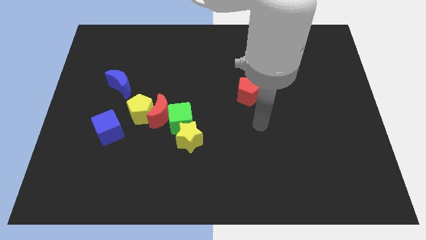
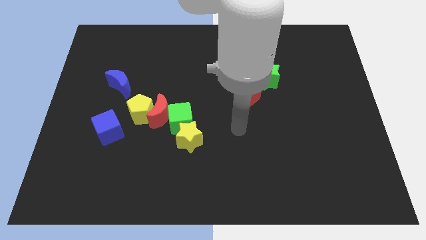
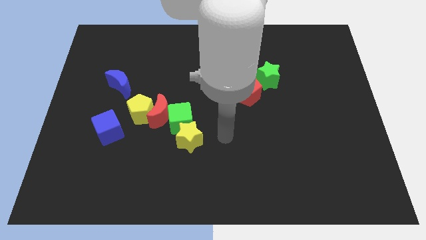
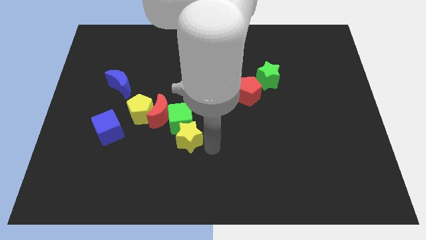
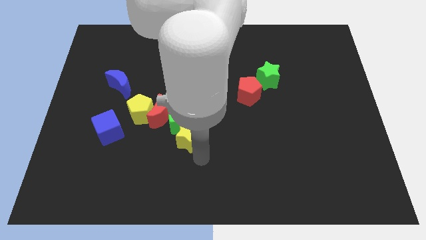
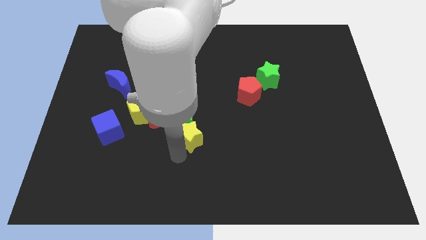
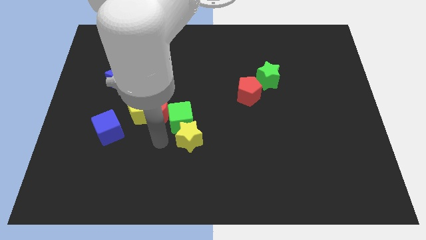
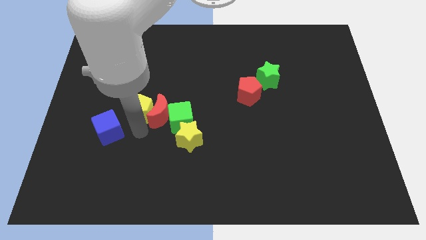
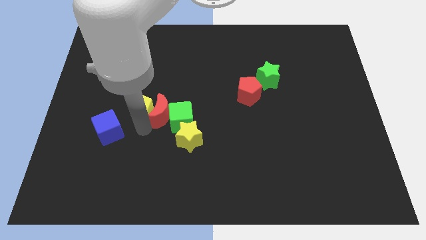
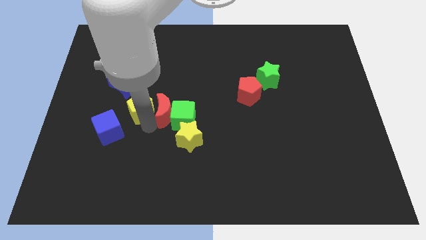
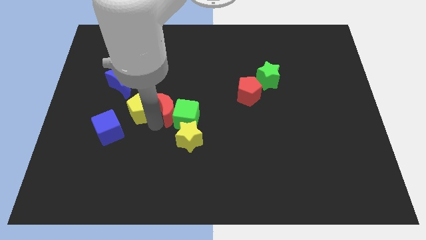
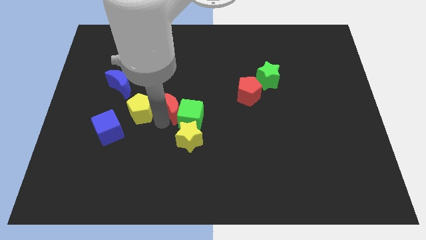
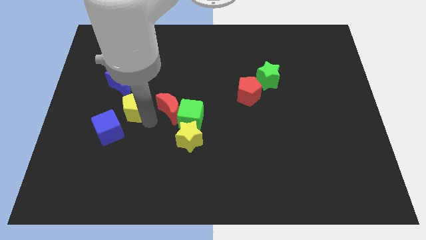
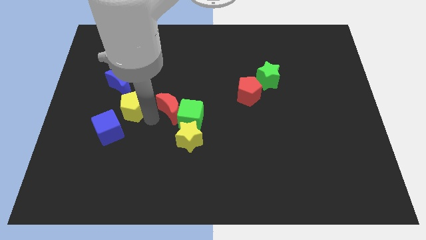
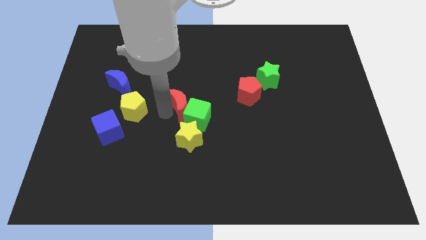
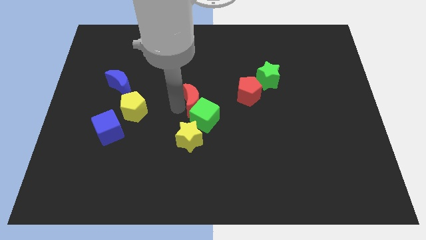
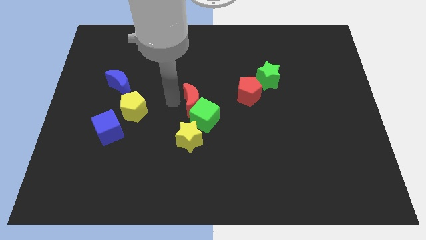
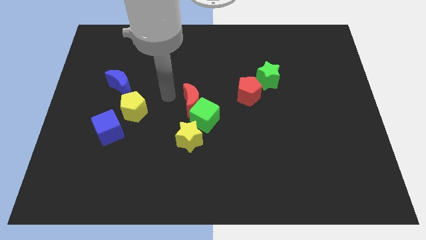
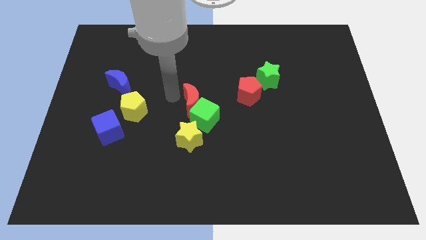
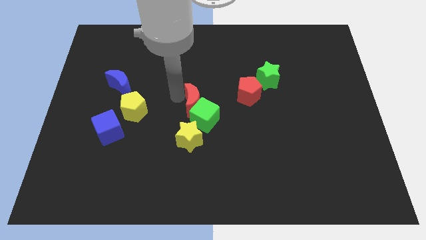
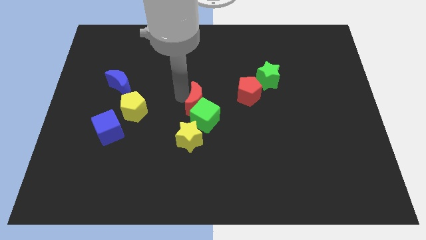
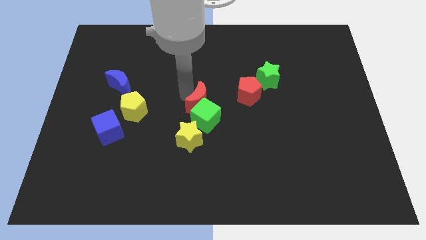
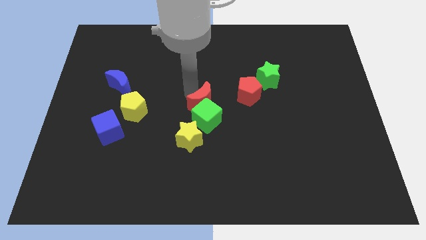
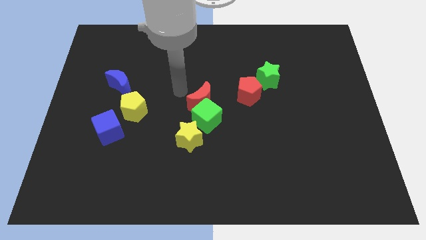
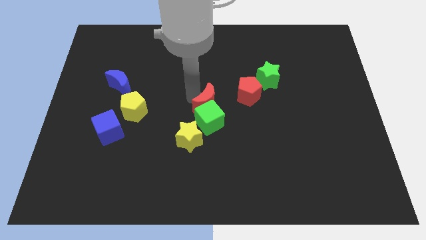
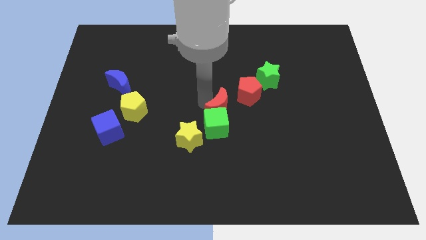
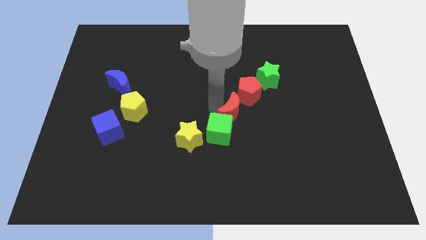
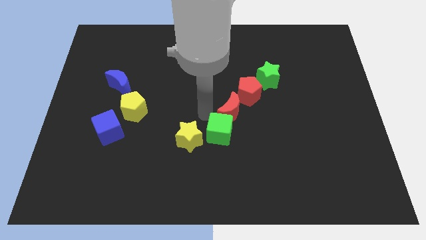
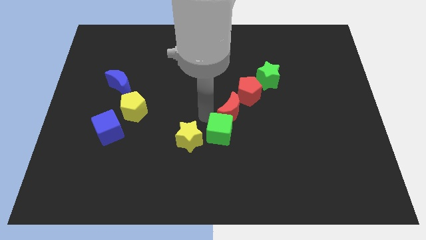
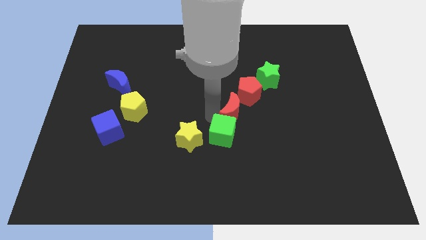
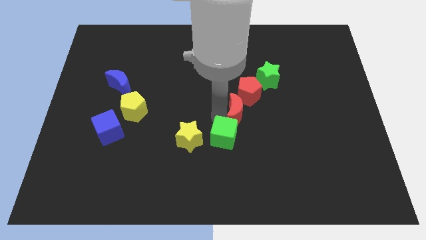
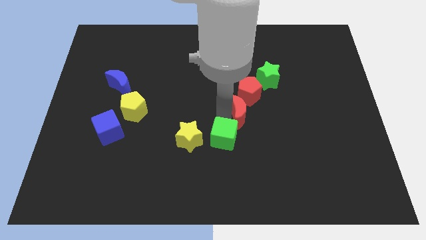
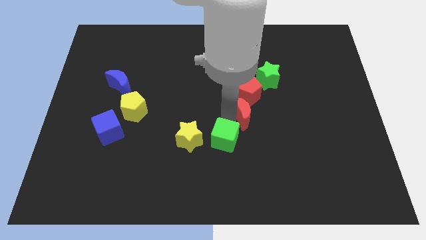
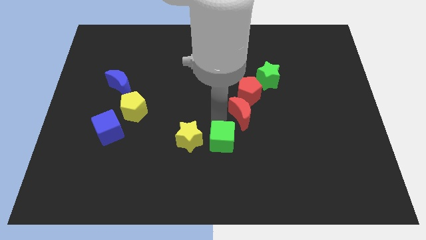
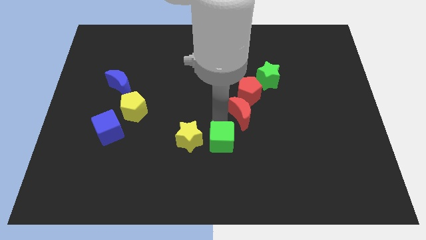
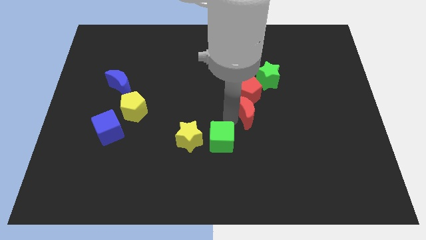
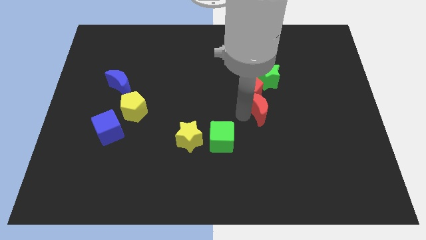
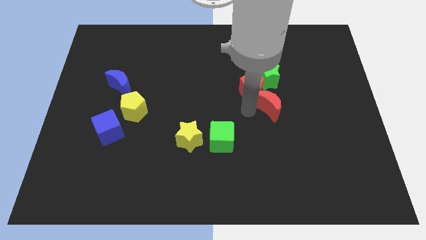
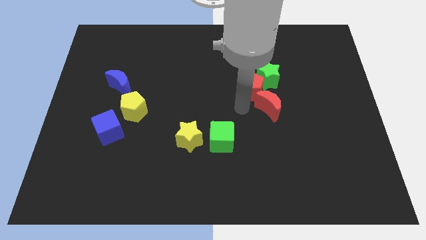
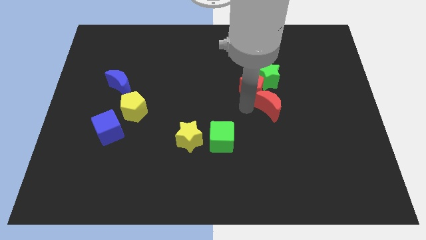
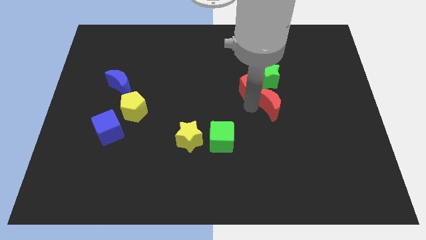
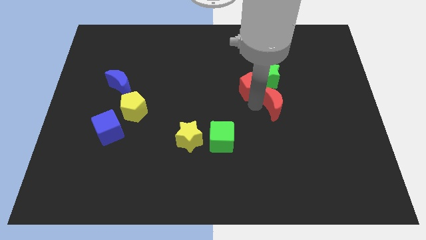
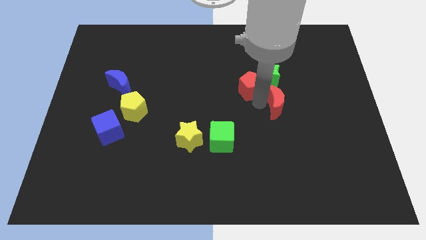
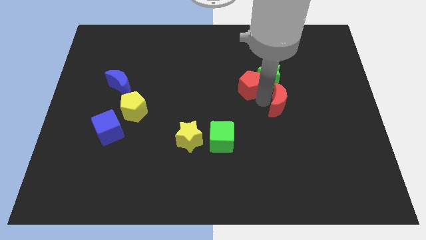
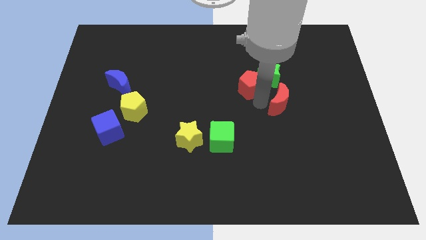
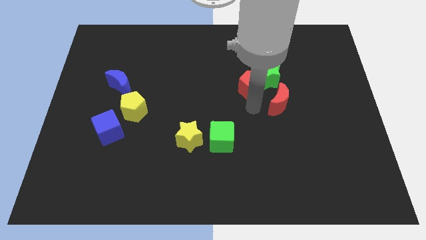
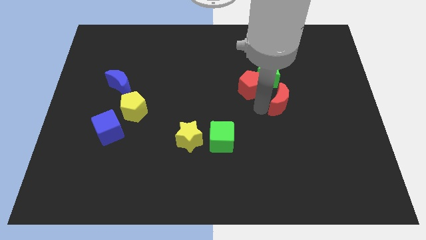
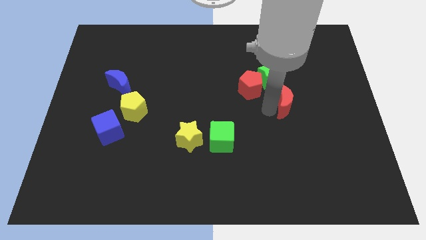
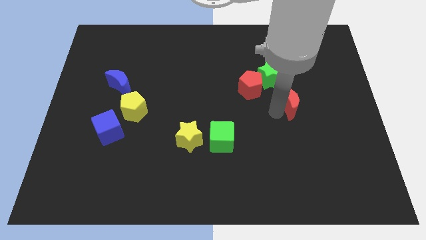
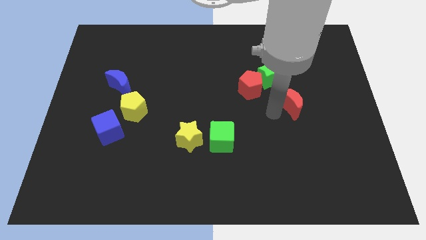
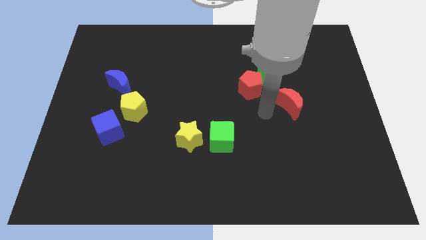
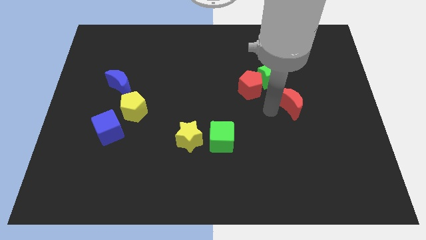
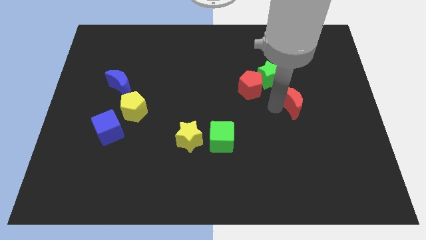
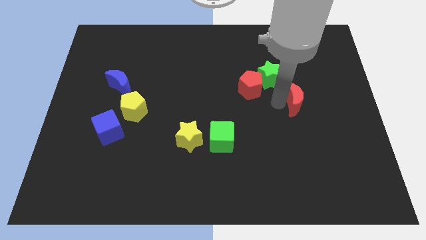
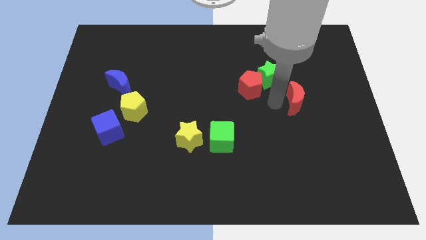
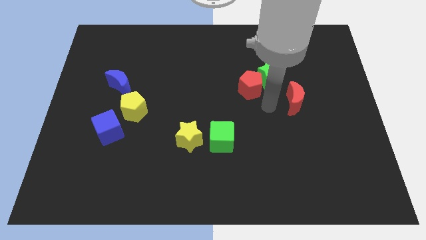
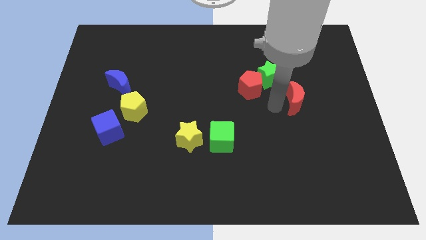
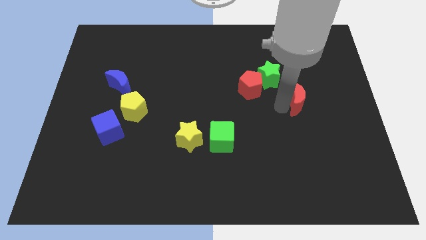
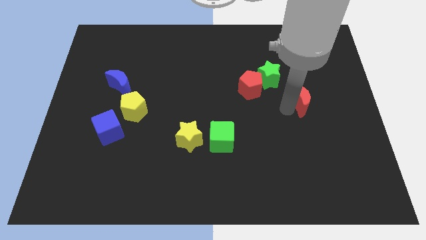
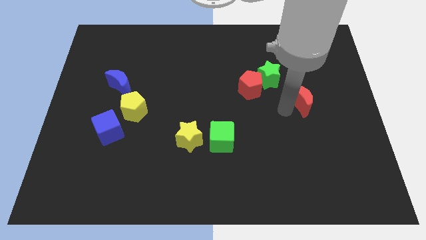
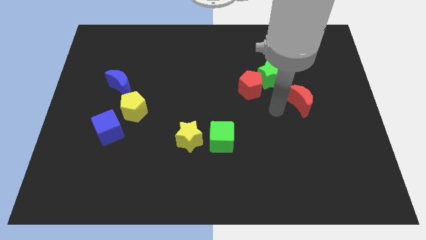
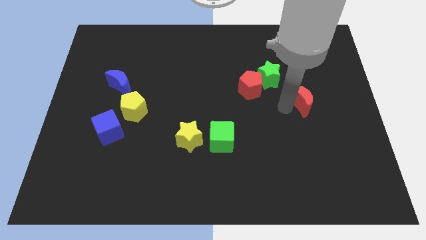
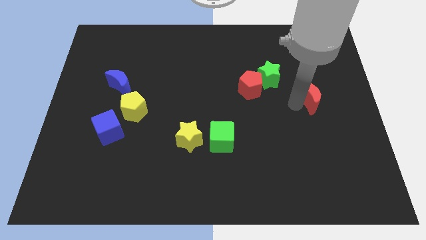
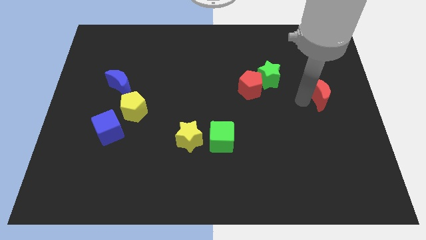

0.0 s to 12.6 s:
push the red moon to the right side of the board

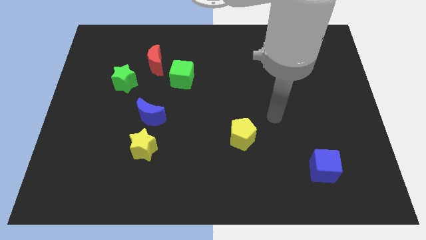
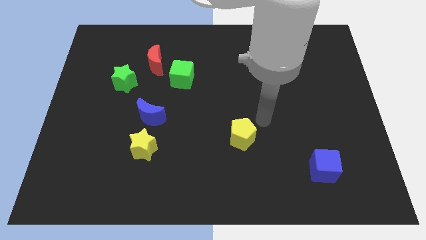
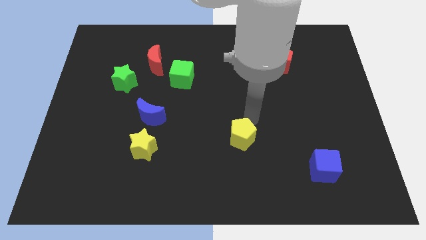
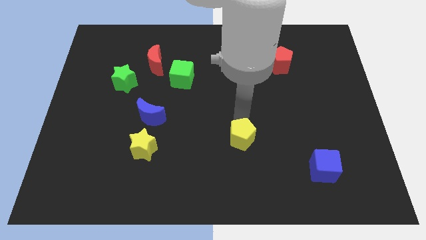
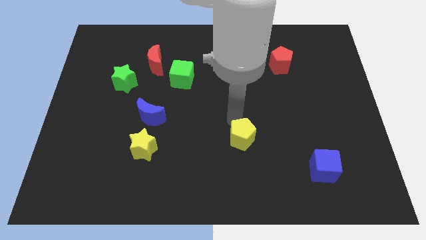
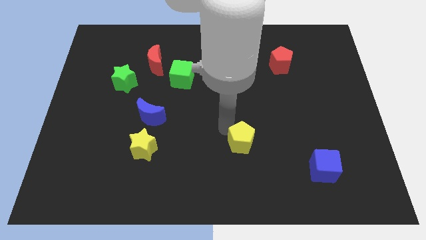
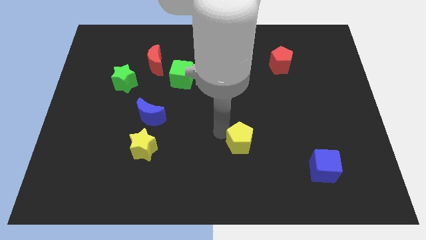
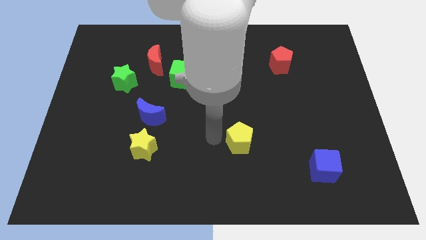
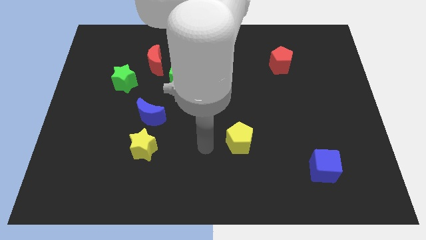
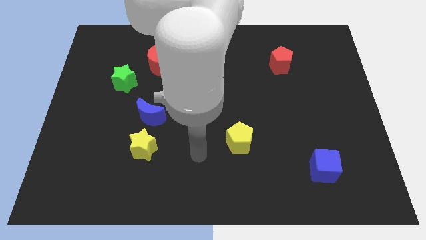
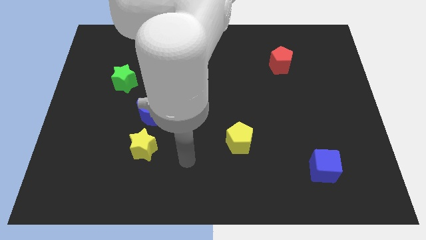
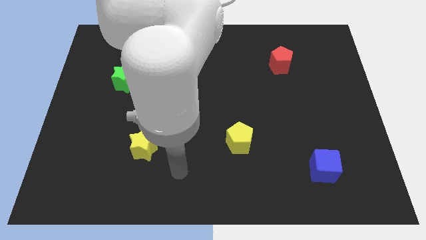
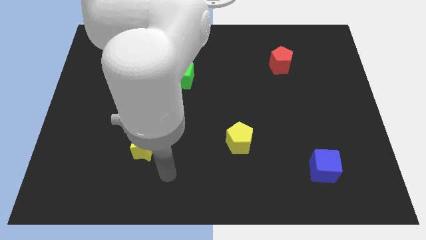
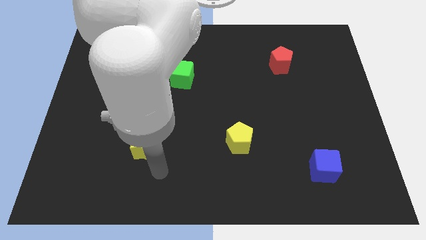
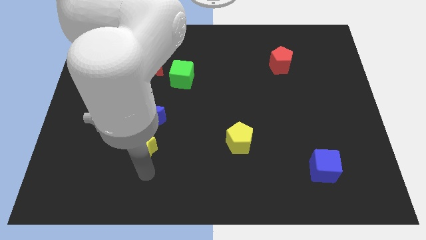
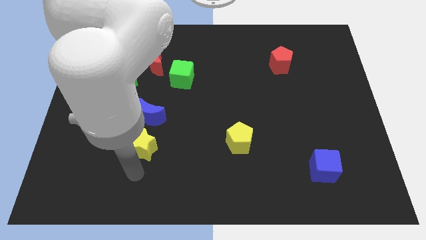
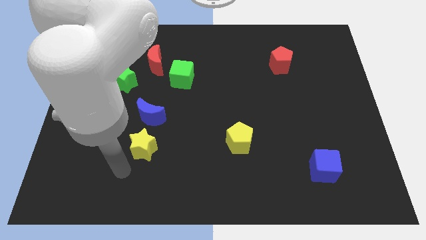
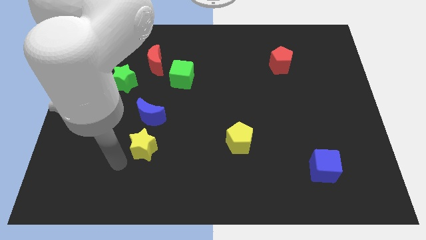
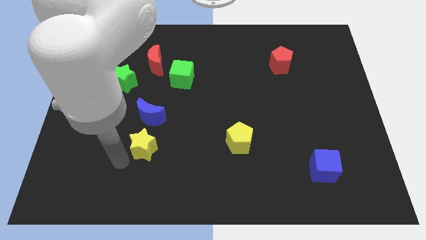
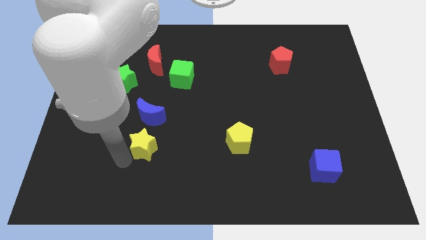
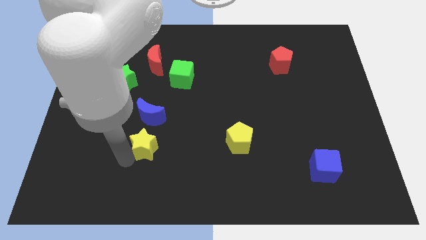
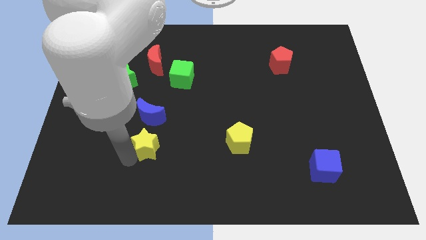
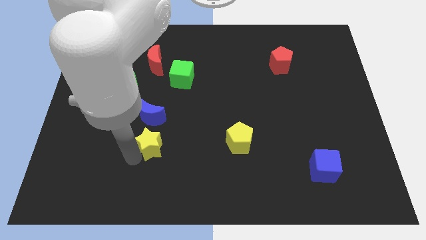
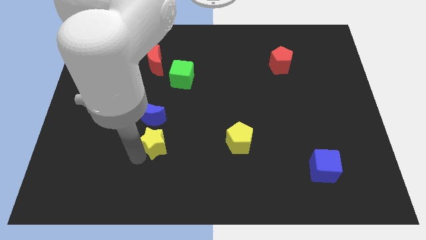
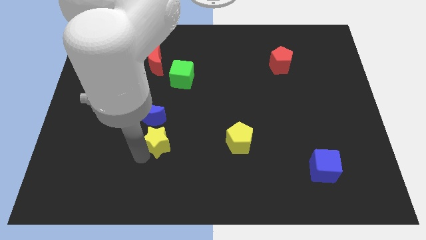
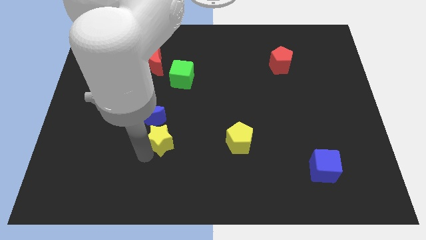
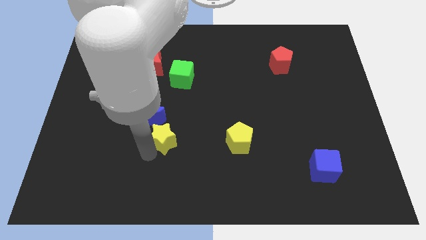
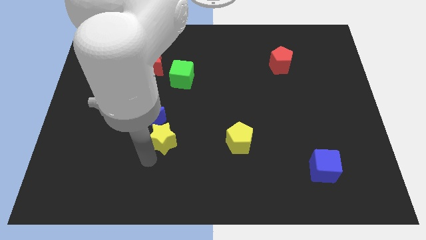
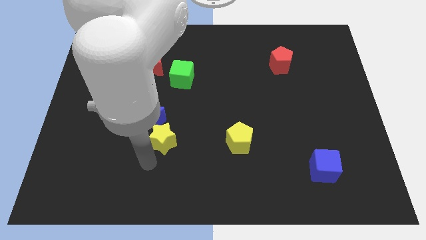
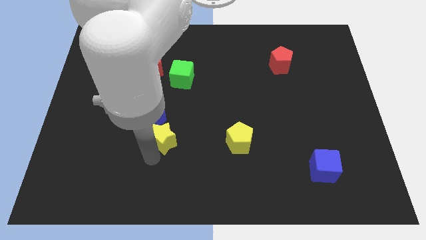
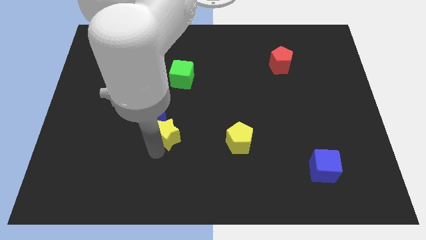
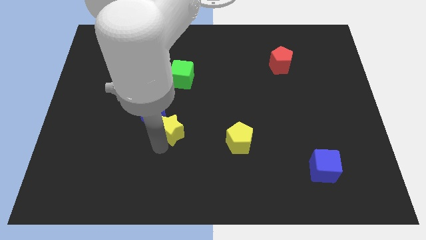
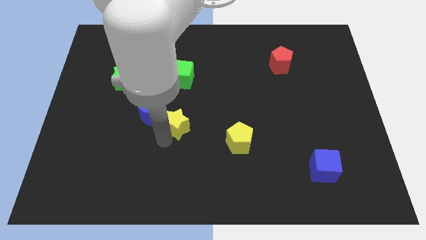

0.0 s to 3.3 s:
put the yellow star to the middle of the board
